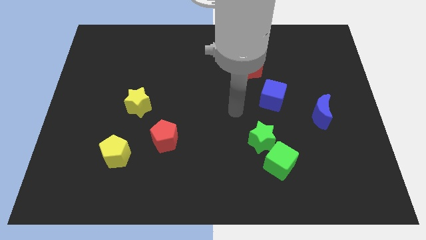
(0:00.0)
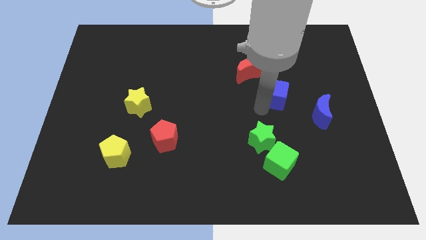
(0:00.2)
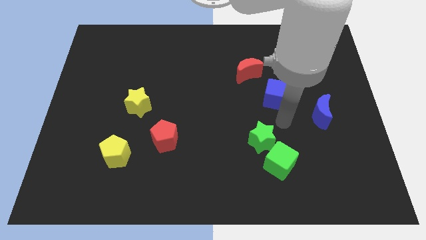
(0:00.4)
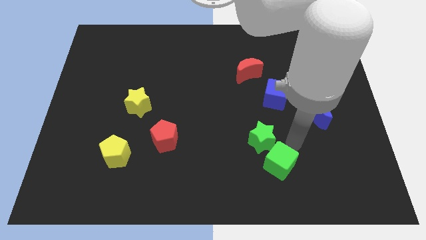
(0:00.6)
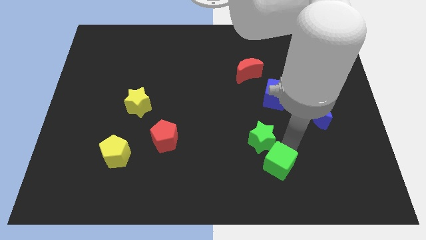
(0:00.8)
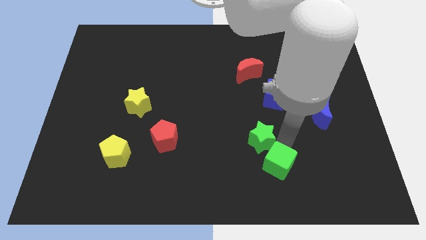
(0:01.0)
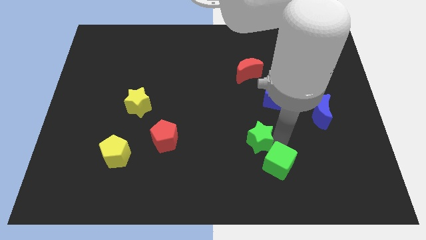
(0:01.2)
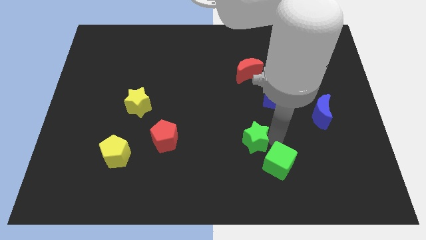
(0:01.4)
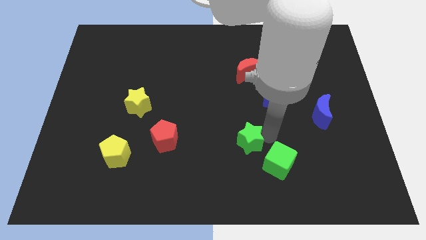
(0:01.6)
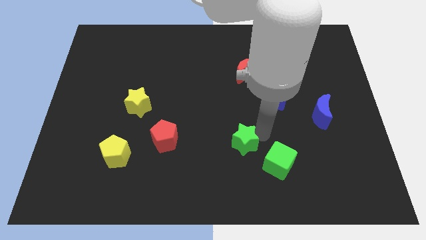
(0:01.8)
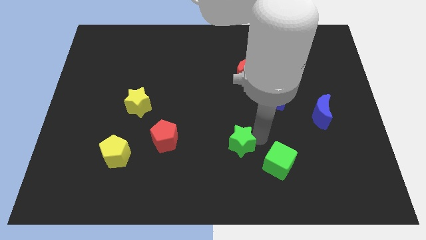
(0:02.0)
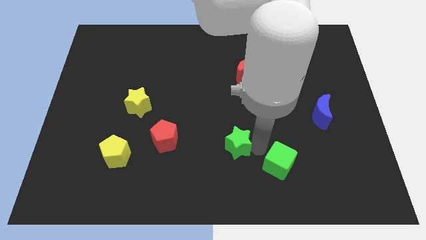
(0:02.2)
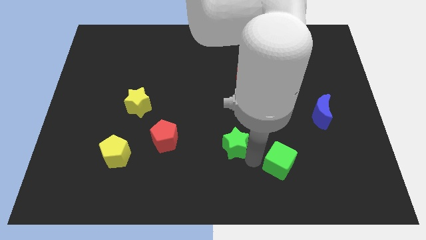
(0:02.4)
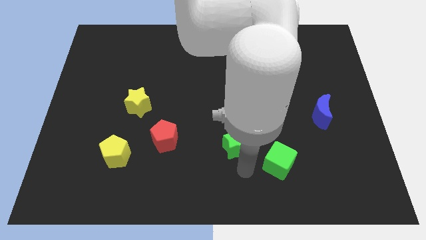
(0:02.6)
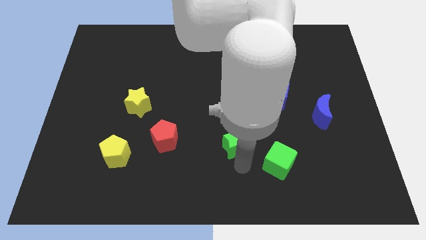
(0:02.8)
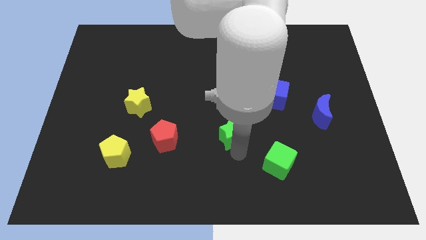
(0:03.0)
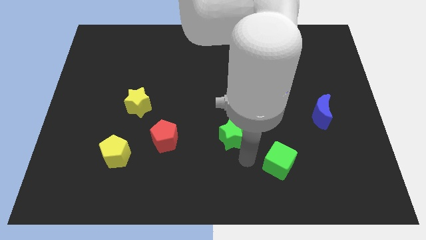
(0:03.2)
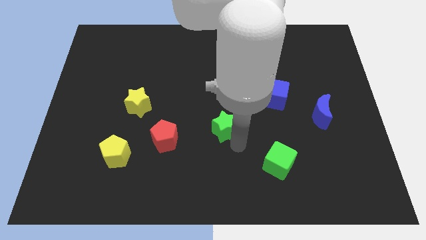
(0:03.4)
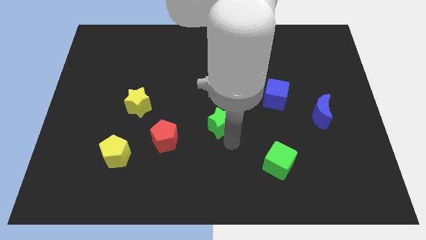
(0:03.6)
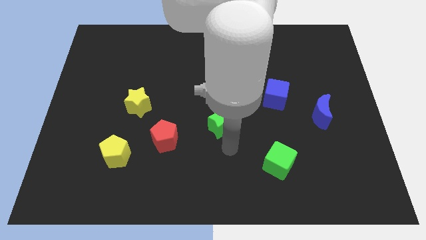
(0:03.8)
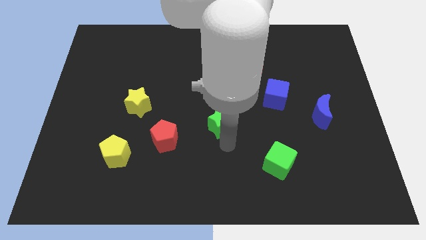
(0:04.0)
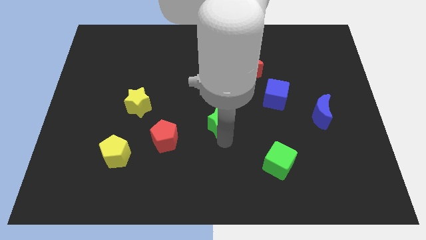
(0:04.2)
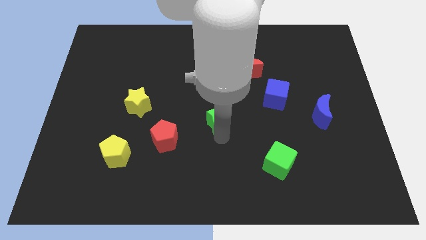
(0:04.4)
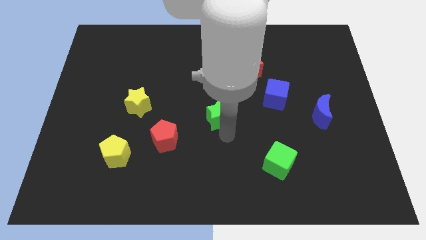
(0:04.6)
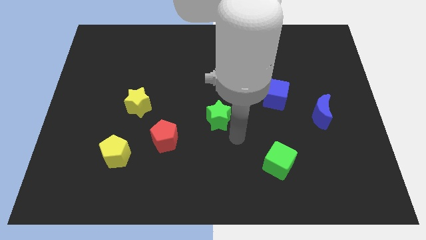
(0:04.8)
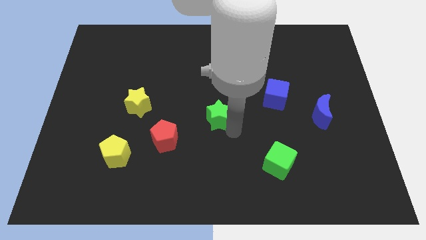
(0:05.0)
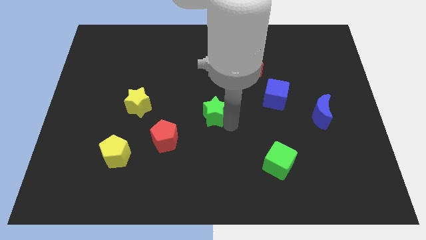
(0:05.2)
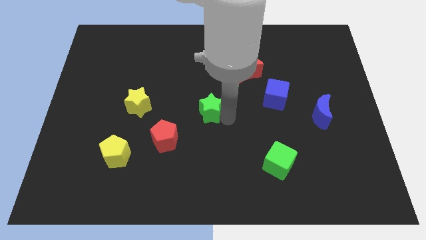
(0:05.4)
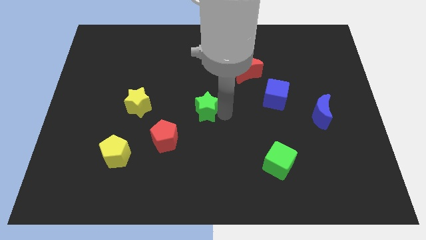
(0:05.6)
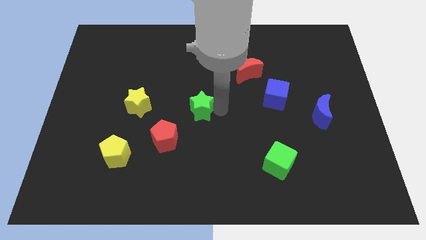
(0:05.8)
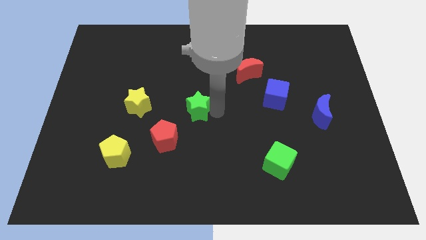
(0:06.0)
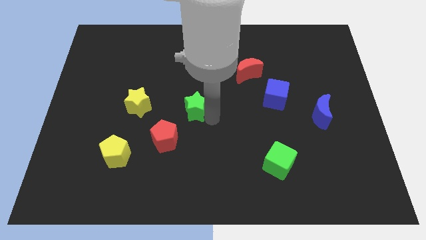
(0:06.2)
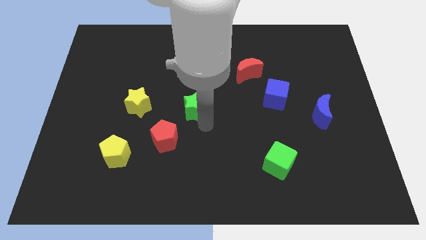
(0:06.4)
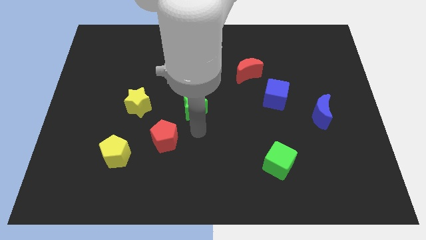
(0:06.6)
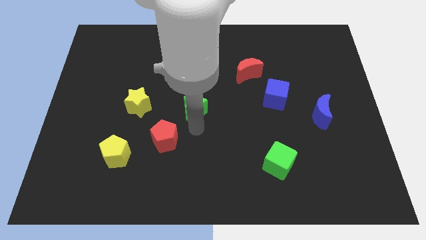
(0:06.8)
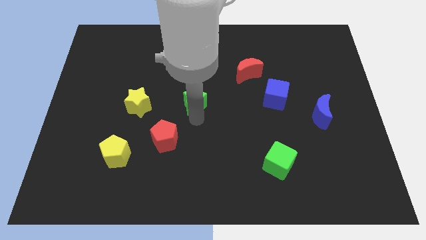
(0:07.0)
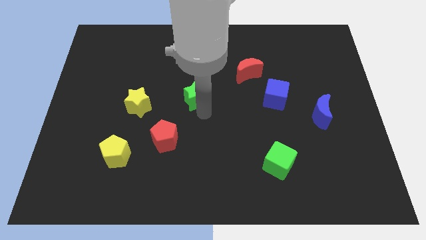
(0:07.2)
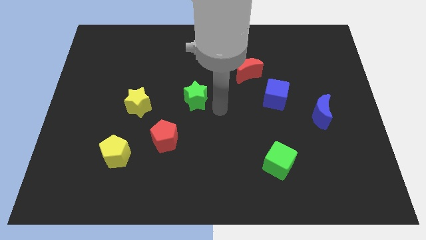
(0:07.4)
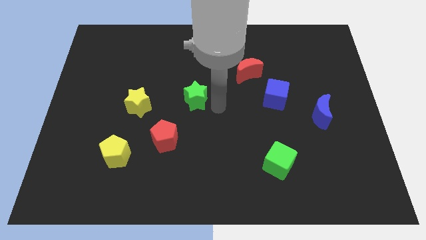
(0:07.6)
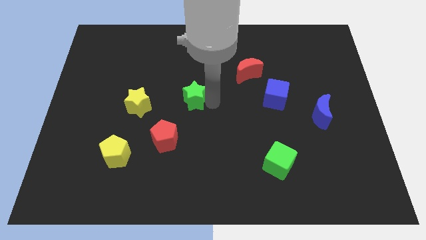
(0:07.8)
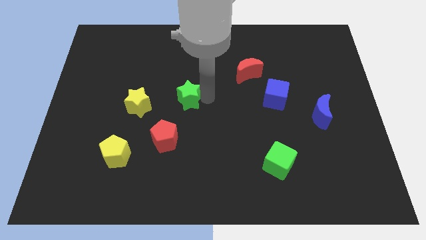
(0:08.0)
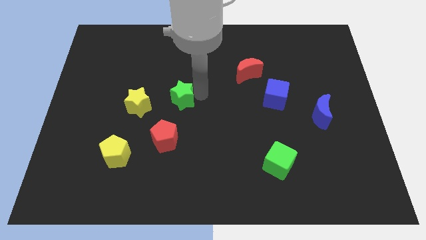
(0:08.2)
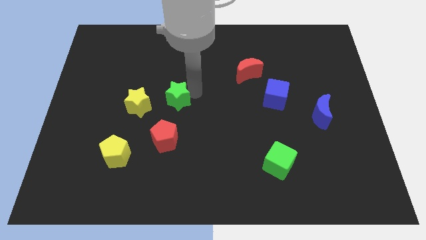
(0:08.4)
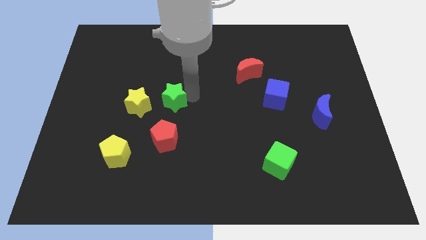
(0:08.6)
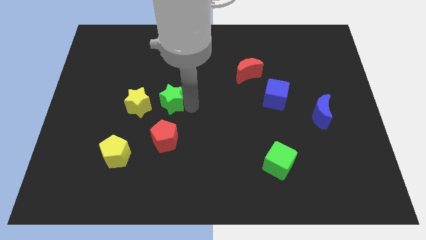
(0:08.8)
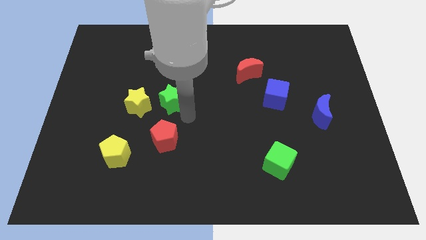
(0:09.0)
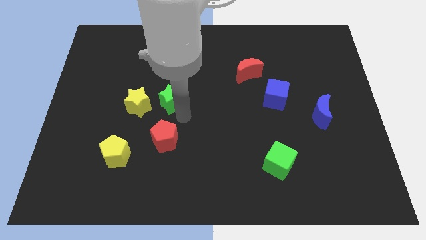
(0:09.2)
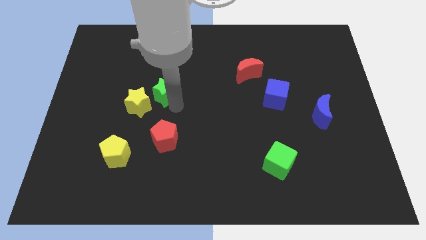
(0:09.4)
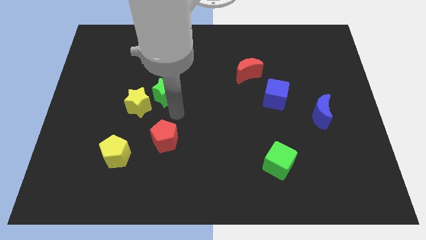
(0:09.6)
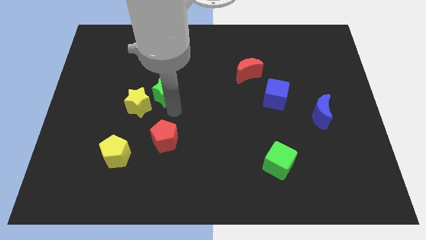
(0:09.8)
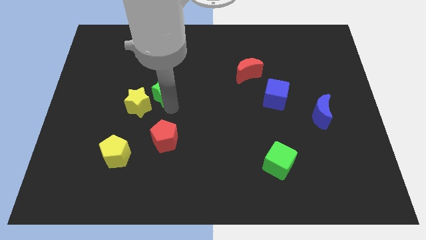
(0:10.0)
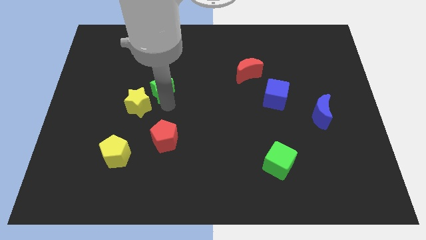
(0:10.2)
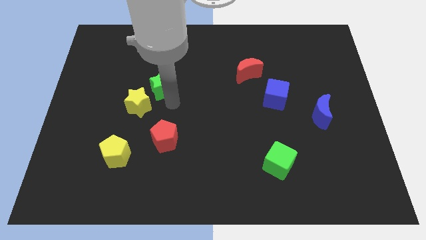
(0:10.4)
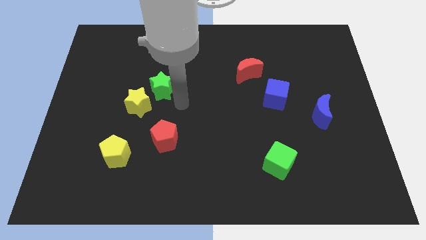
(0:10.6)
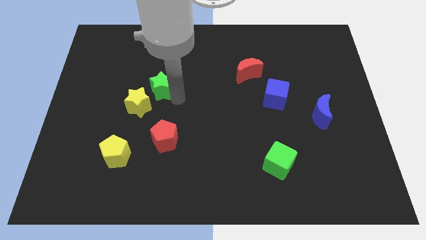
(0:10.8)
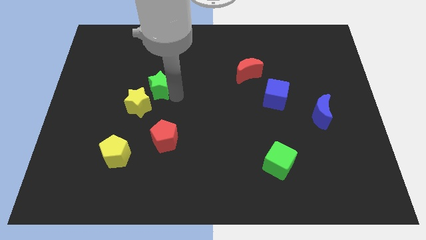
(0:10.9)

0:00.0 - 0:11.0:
slide the green star to the top of the yellow star

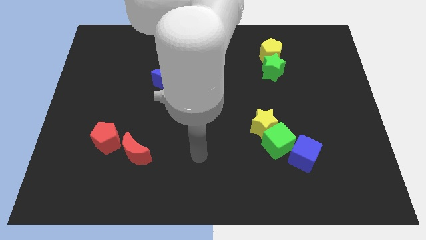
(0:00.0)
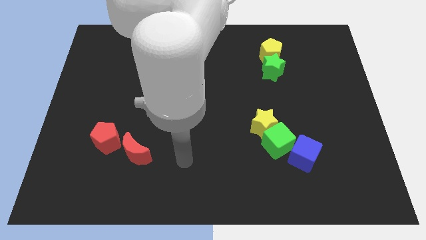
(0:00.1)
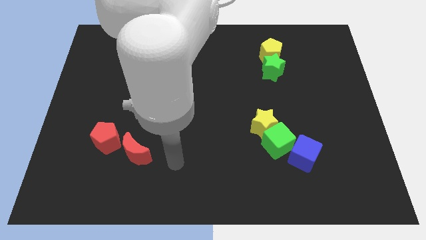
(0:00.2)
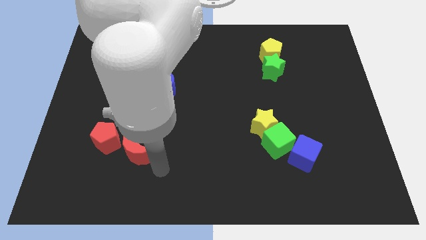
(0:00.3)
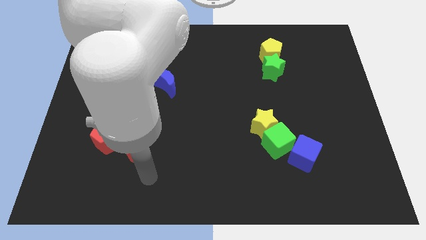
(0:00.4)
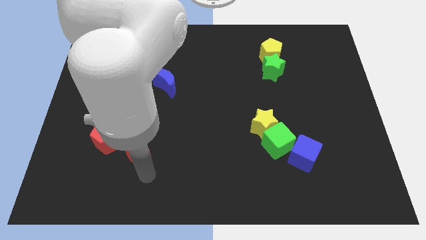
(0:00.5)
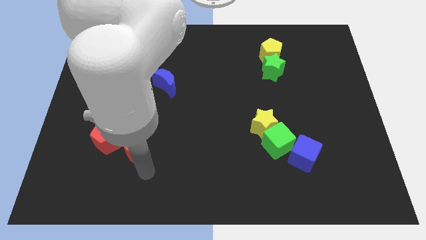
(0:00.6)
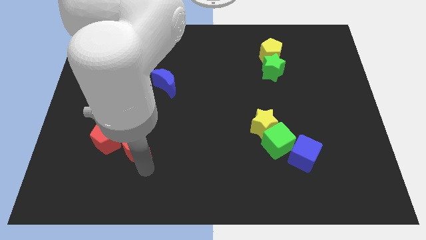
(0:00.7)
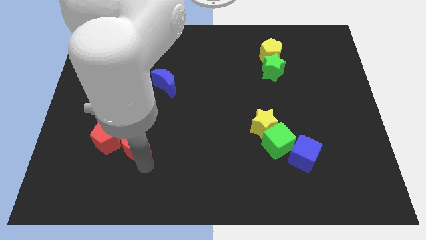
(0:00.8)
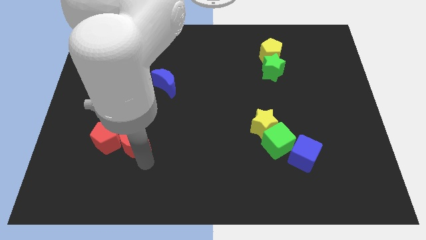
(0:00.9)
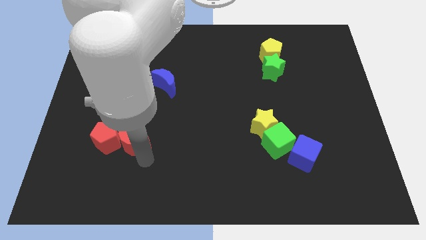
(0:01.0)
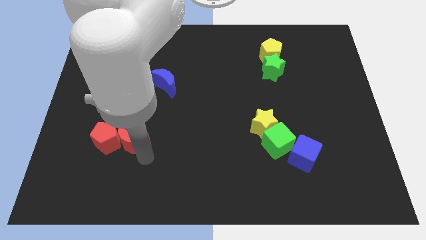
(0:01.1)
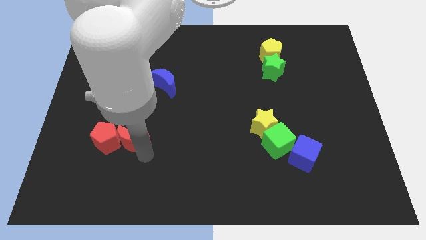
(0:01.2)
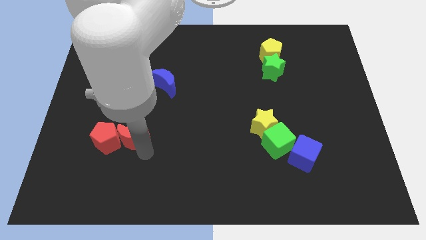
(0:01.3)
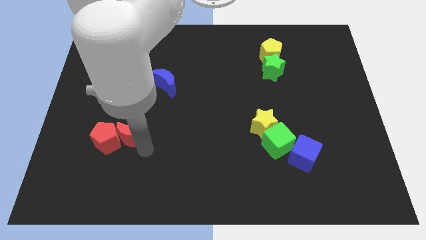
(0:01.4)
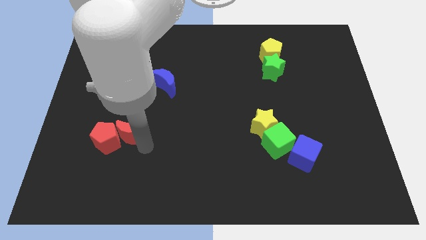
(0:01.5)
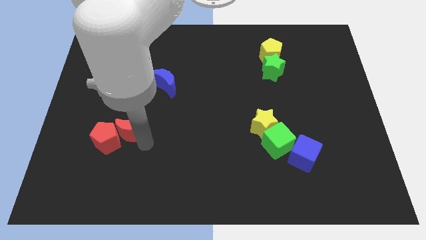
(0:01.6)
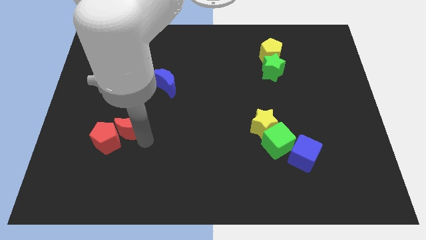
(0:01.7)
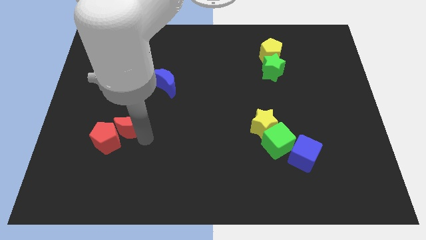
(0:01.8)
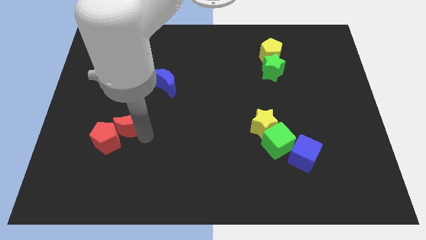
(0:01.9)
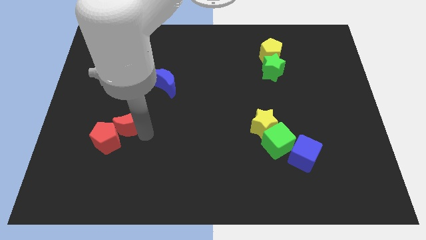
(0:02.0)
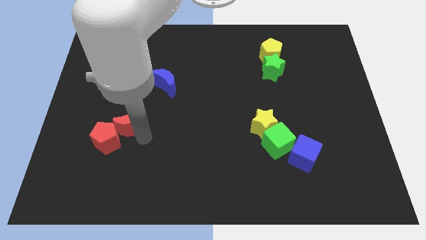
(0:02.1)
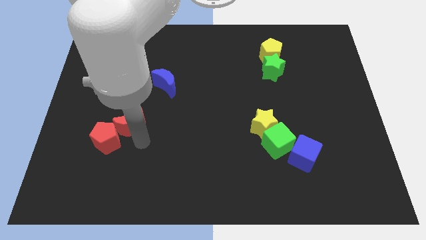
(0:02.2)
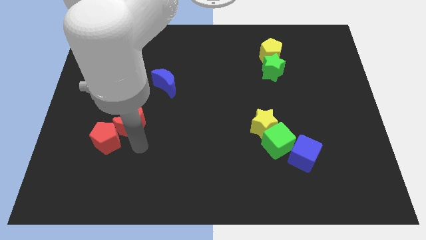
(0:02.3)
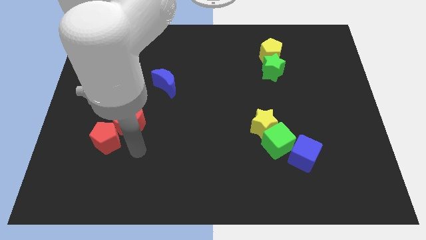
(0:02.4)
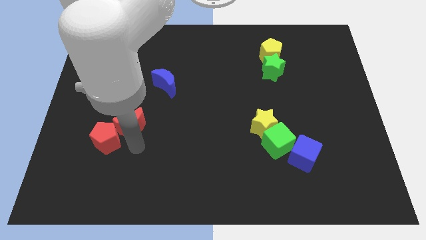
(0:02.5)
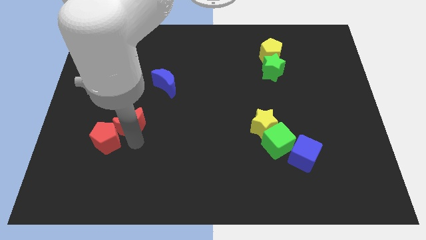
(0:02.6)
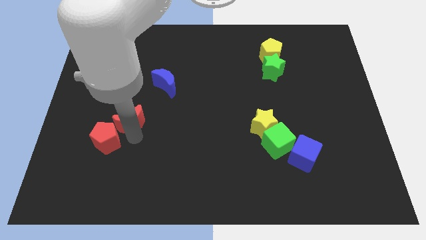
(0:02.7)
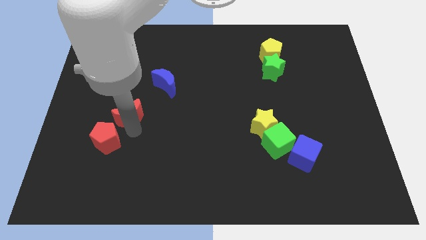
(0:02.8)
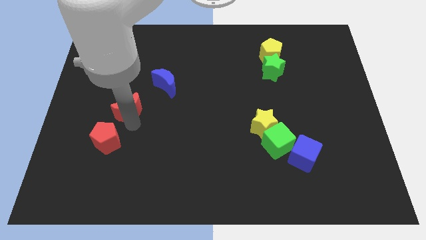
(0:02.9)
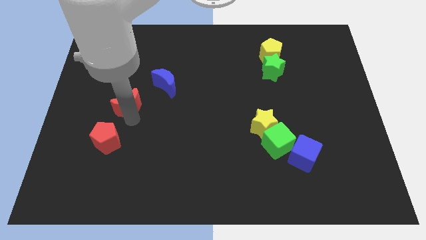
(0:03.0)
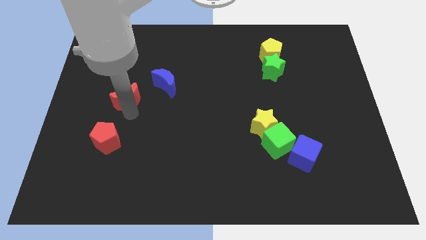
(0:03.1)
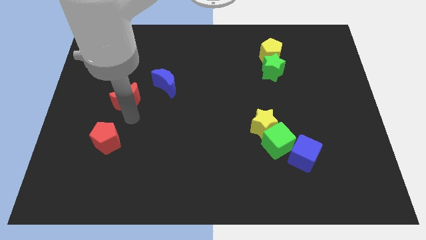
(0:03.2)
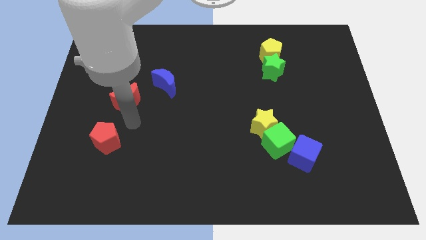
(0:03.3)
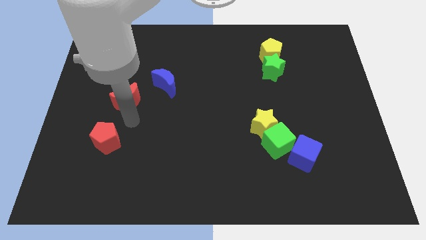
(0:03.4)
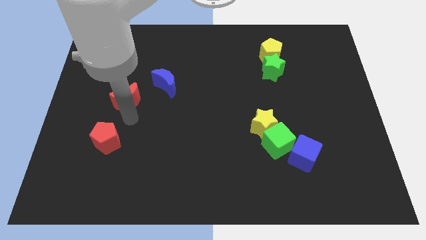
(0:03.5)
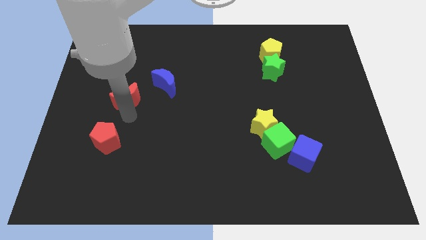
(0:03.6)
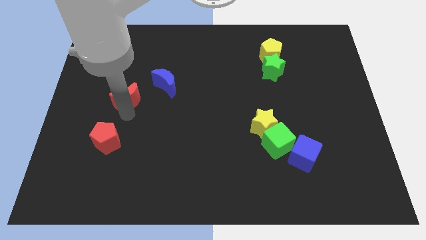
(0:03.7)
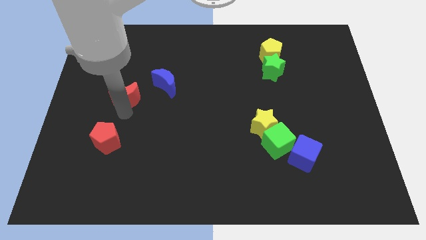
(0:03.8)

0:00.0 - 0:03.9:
put the red moon to the left of the blue moon
